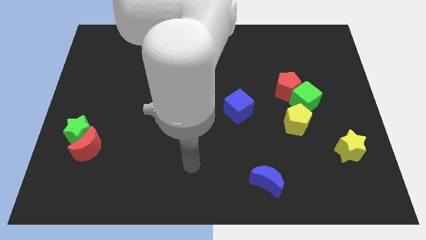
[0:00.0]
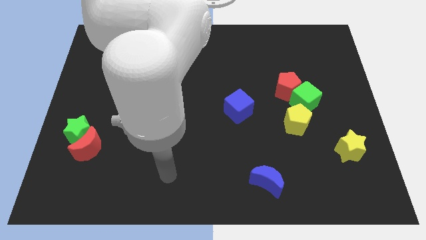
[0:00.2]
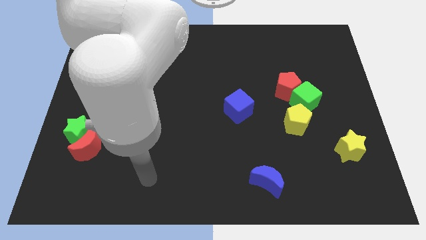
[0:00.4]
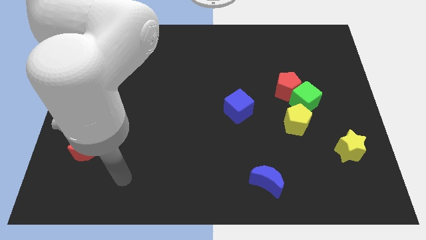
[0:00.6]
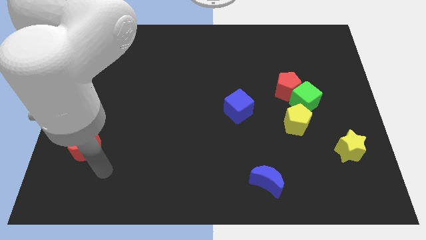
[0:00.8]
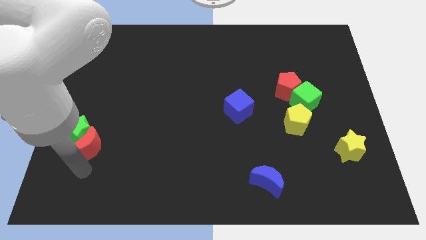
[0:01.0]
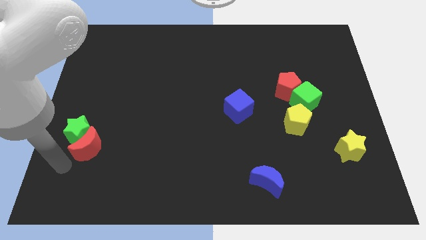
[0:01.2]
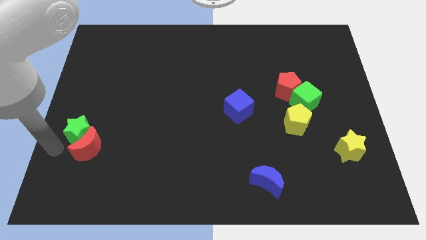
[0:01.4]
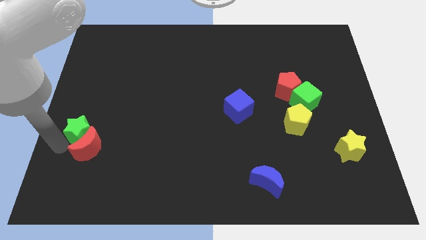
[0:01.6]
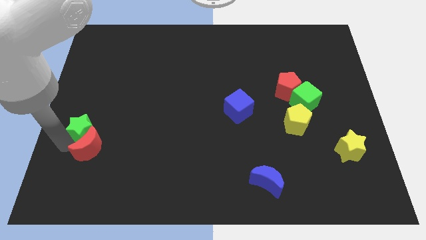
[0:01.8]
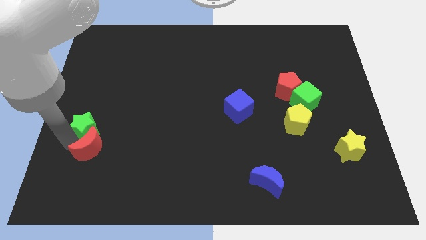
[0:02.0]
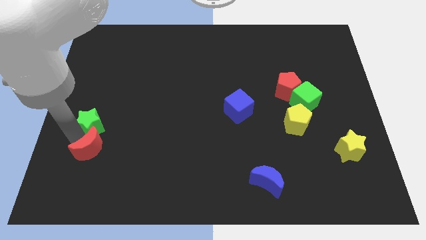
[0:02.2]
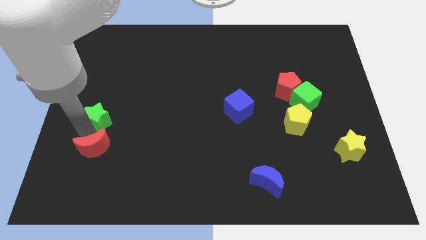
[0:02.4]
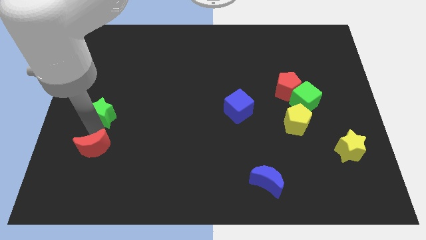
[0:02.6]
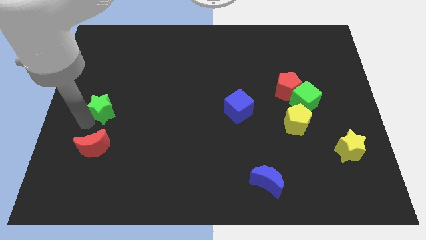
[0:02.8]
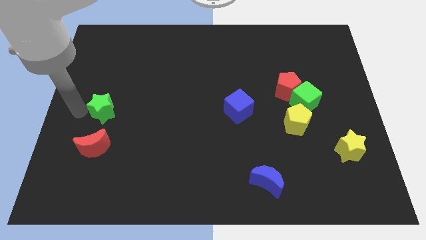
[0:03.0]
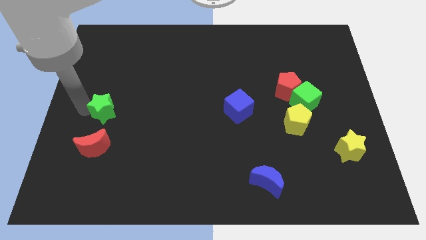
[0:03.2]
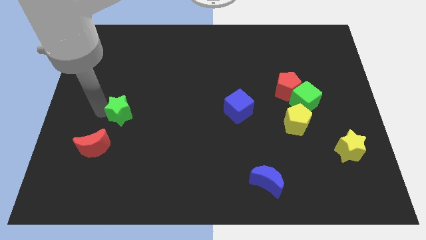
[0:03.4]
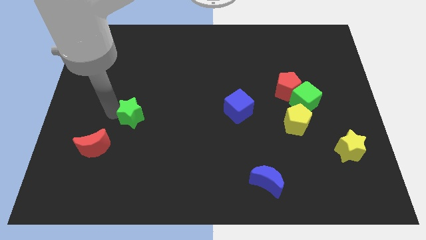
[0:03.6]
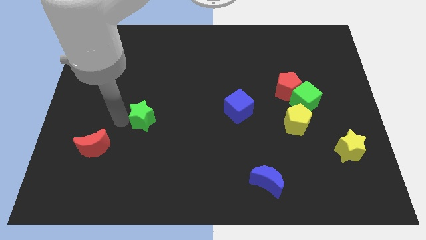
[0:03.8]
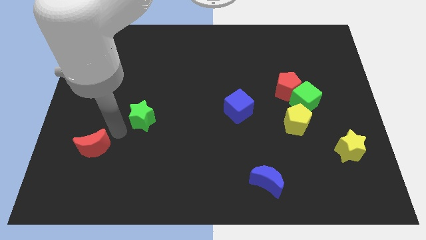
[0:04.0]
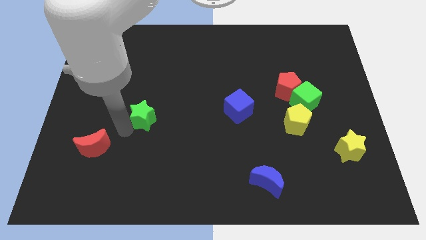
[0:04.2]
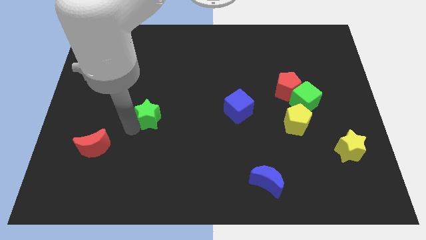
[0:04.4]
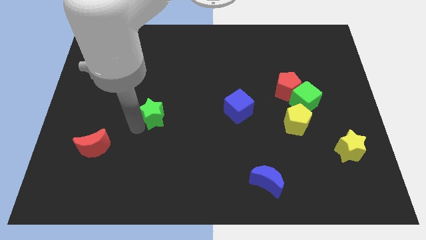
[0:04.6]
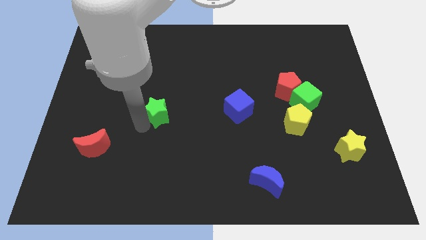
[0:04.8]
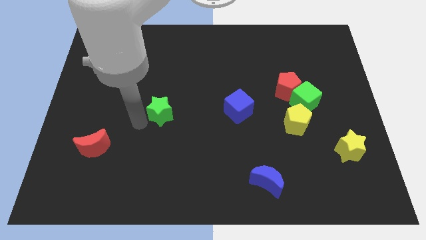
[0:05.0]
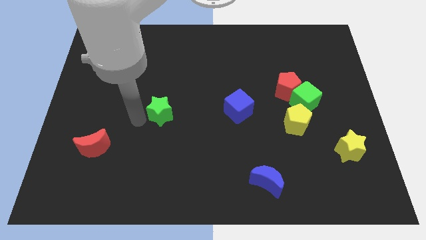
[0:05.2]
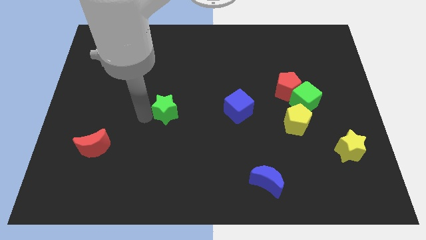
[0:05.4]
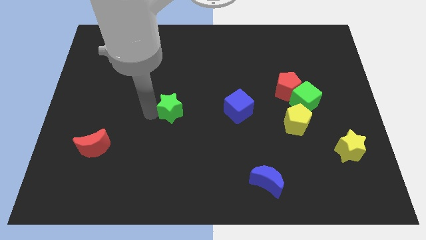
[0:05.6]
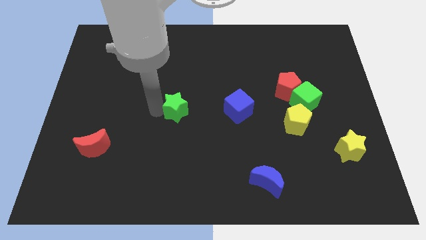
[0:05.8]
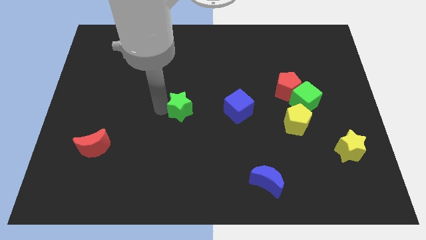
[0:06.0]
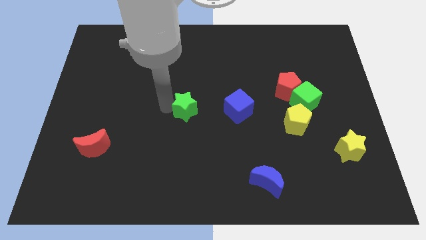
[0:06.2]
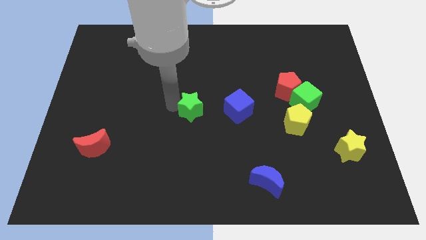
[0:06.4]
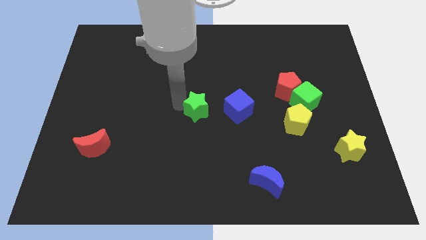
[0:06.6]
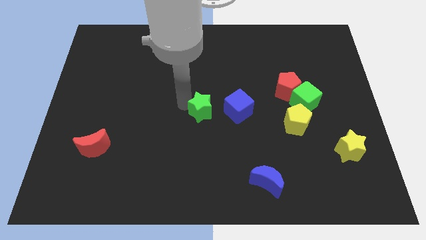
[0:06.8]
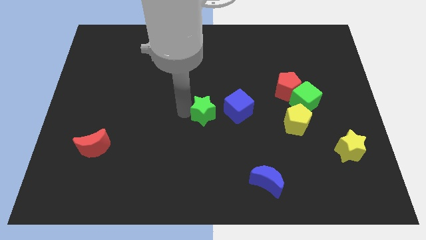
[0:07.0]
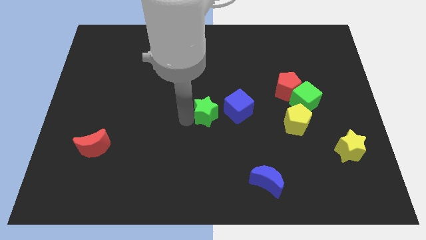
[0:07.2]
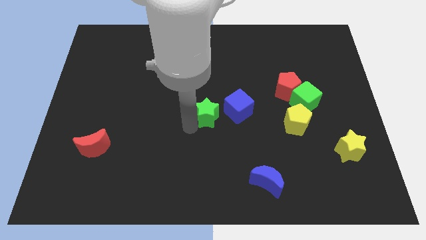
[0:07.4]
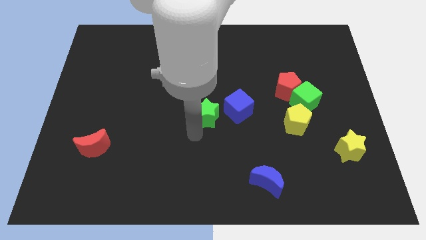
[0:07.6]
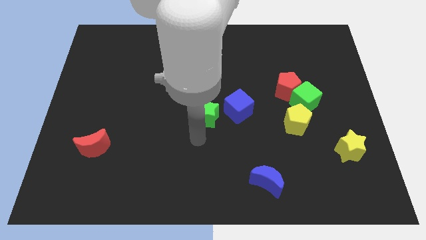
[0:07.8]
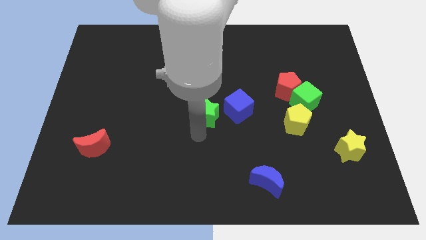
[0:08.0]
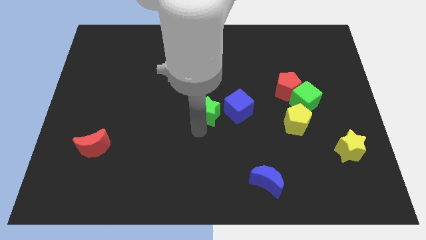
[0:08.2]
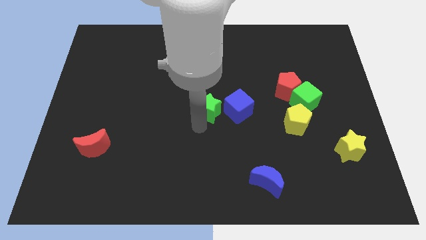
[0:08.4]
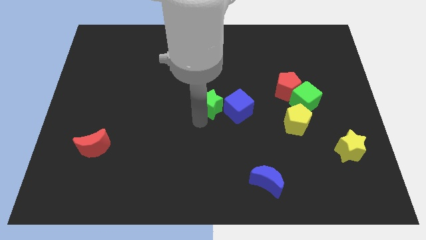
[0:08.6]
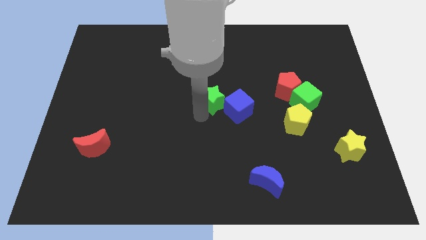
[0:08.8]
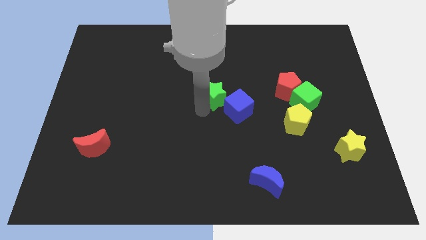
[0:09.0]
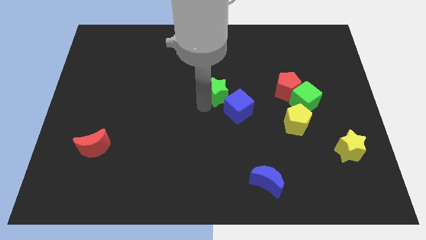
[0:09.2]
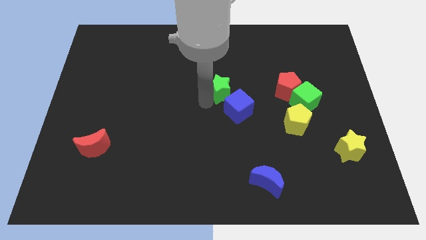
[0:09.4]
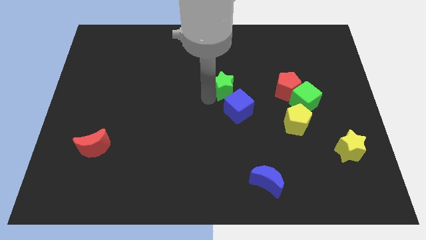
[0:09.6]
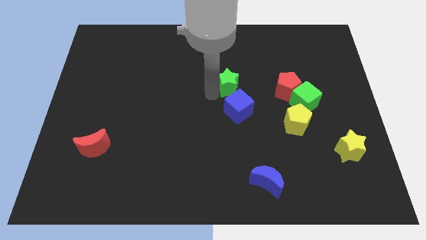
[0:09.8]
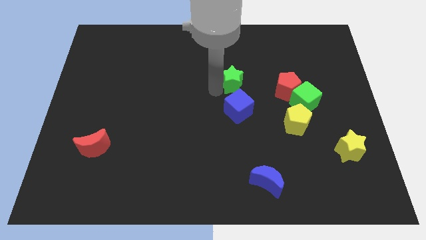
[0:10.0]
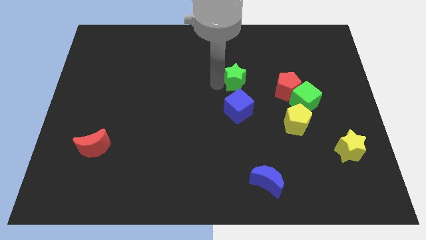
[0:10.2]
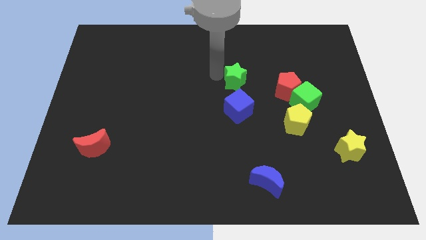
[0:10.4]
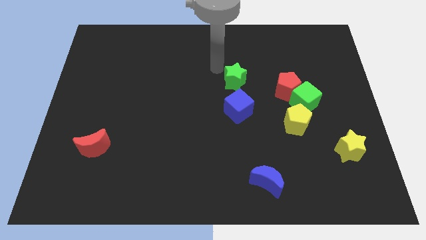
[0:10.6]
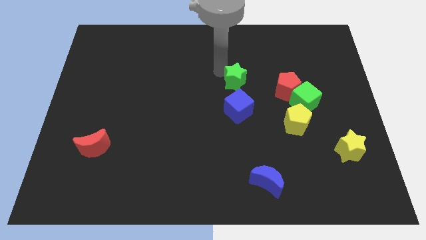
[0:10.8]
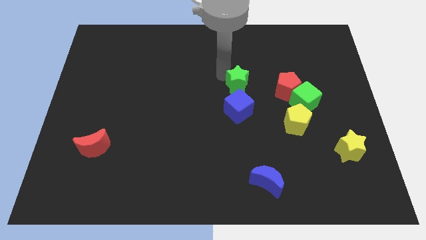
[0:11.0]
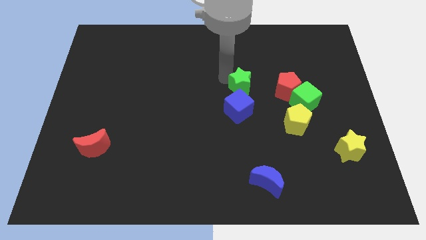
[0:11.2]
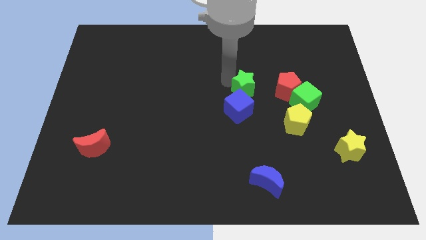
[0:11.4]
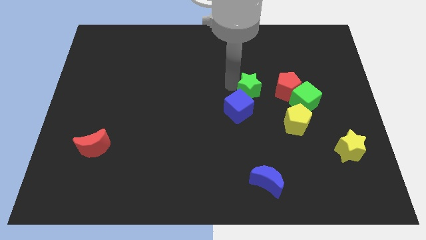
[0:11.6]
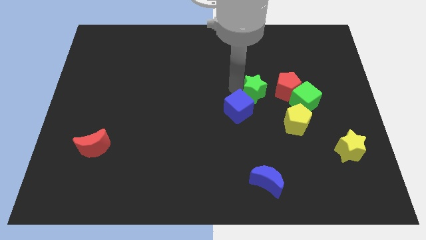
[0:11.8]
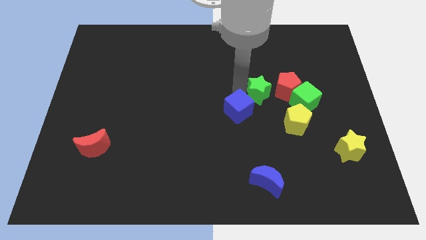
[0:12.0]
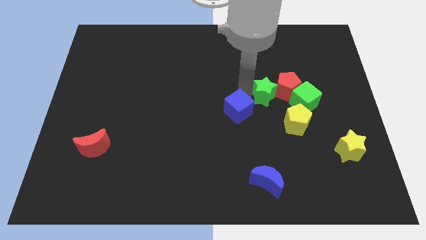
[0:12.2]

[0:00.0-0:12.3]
push the green star close to the red pentagon
